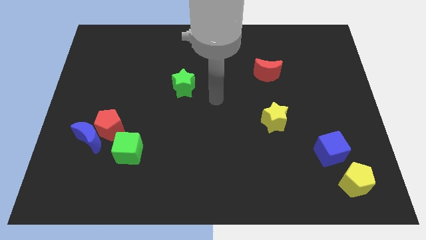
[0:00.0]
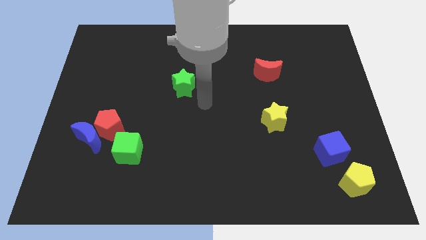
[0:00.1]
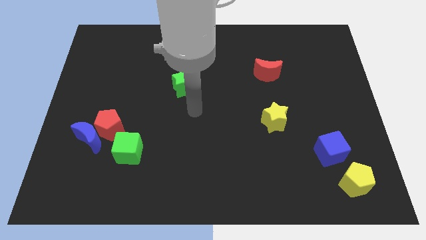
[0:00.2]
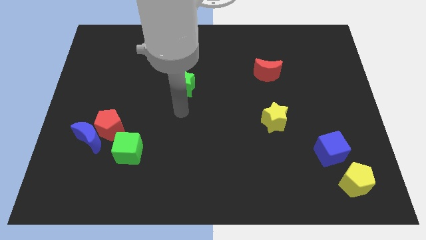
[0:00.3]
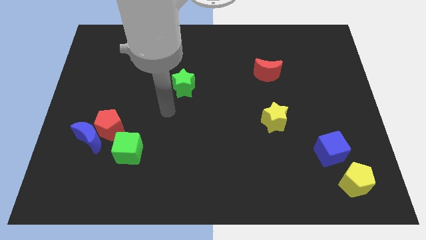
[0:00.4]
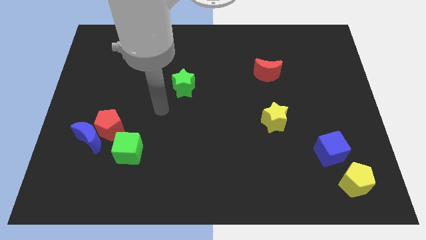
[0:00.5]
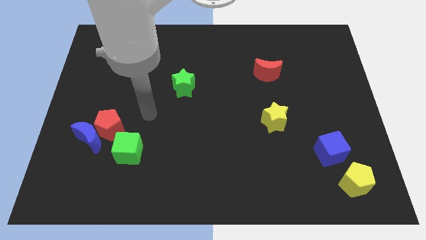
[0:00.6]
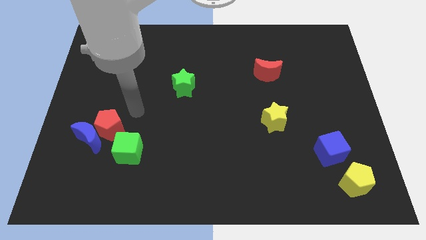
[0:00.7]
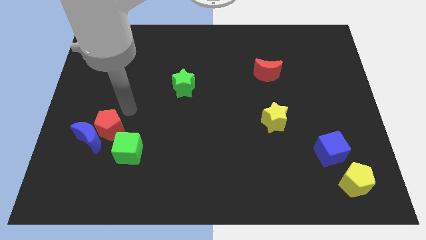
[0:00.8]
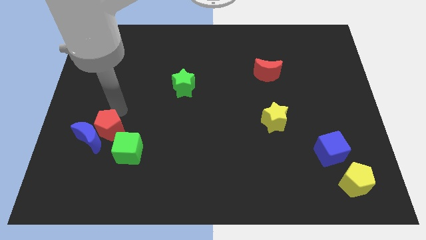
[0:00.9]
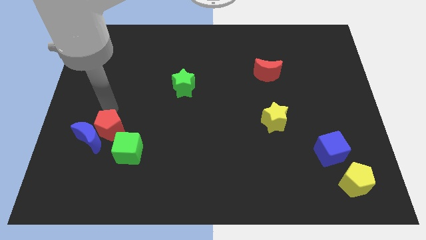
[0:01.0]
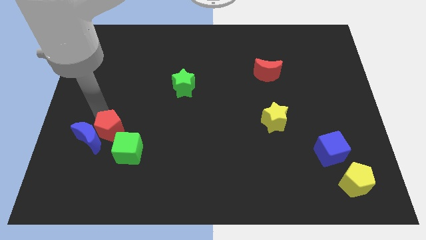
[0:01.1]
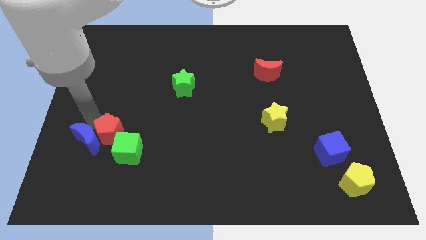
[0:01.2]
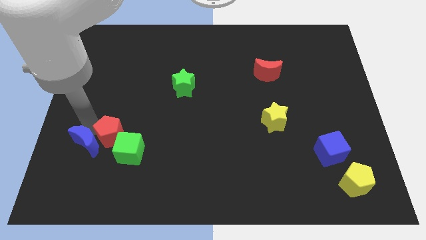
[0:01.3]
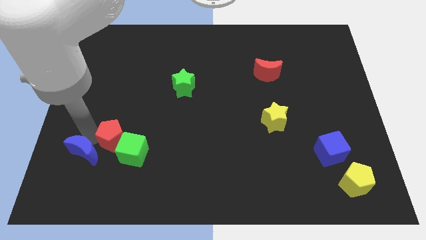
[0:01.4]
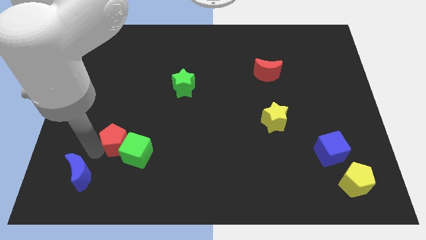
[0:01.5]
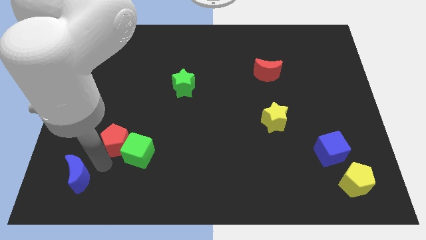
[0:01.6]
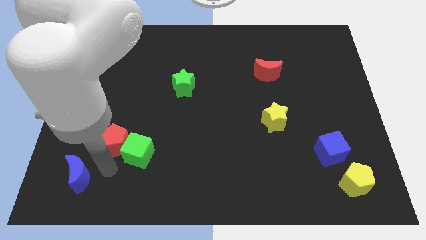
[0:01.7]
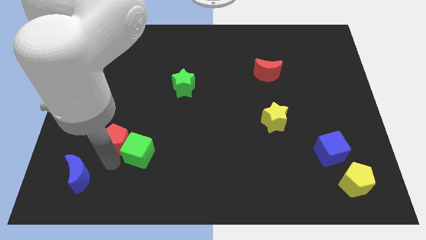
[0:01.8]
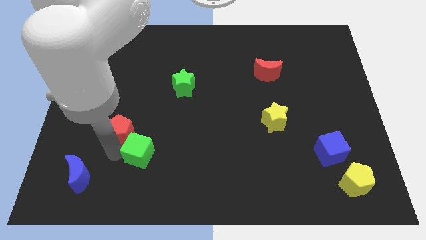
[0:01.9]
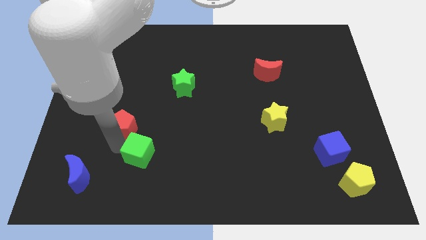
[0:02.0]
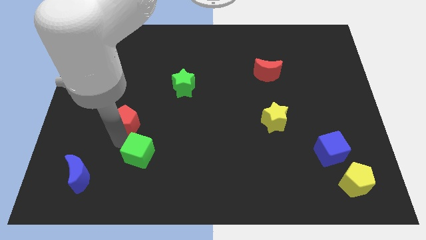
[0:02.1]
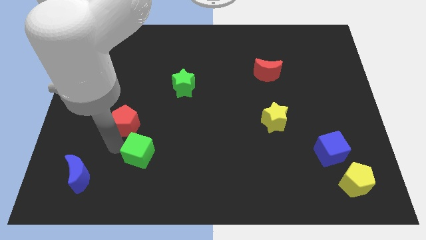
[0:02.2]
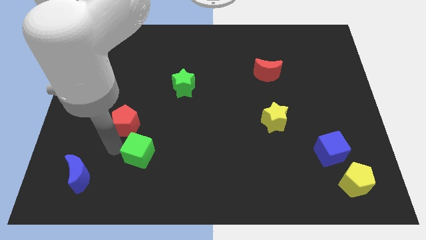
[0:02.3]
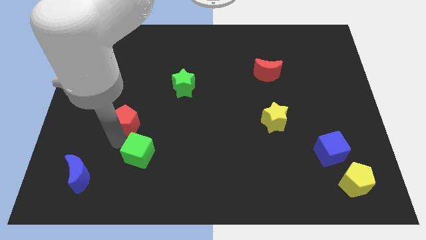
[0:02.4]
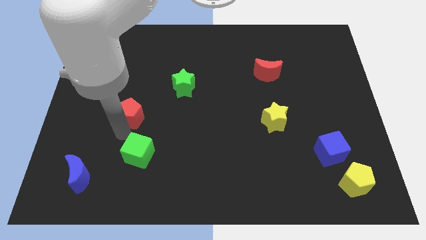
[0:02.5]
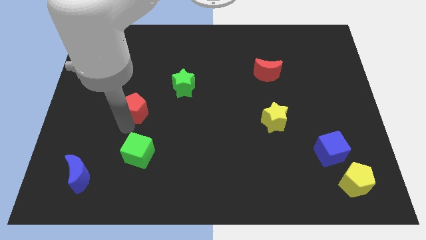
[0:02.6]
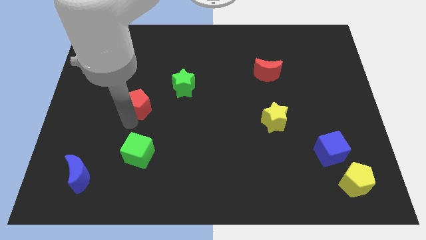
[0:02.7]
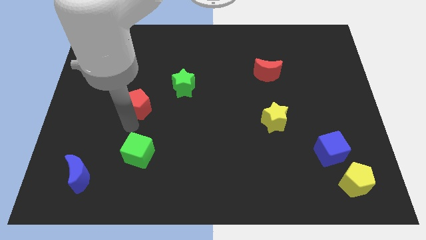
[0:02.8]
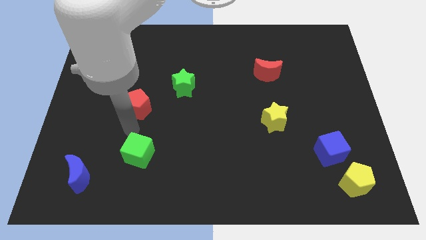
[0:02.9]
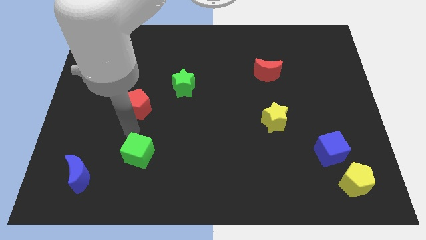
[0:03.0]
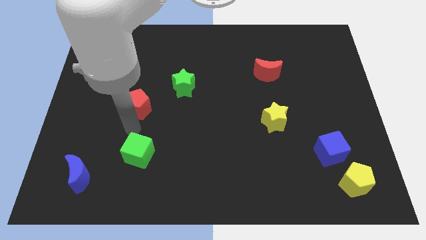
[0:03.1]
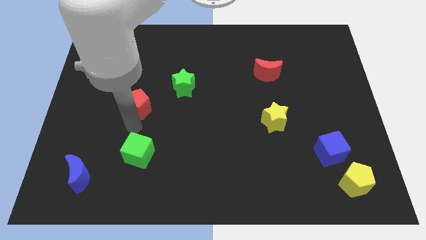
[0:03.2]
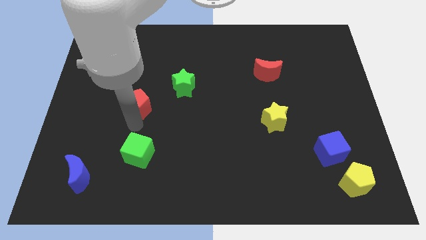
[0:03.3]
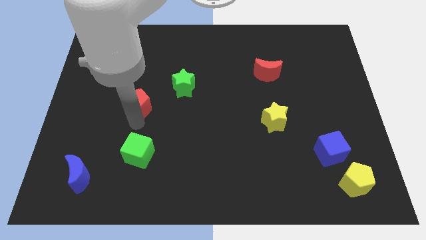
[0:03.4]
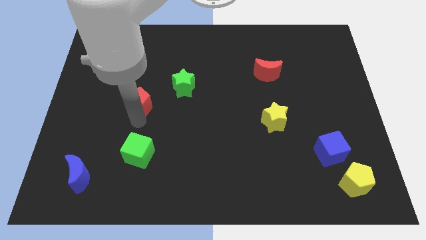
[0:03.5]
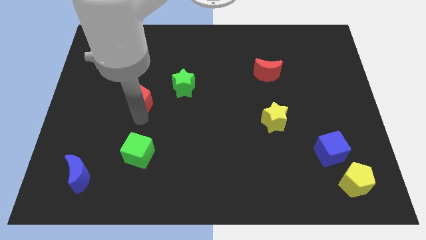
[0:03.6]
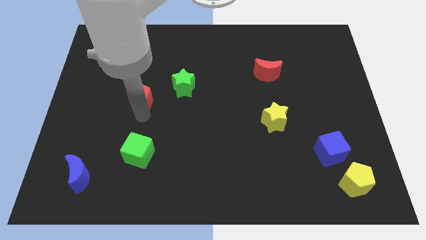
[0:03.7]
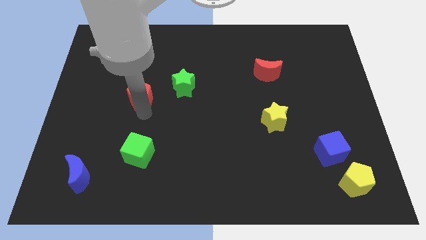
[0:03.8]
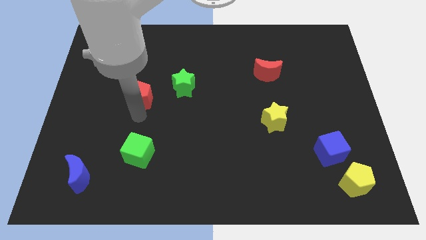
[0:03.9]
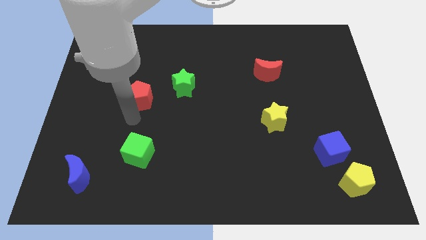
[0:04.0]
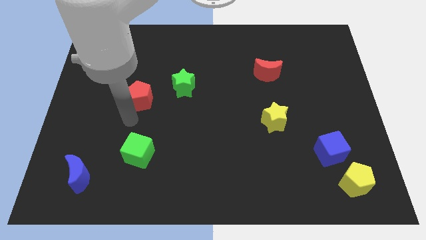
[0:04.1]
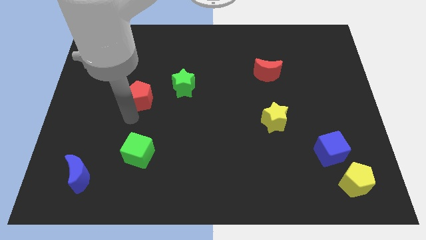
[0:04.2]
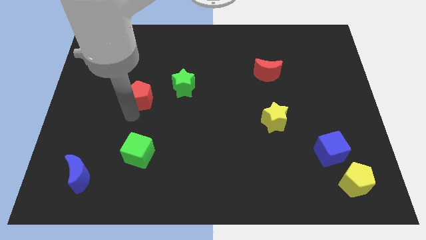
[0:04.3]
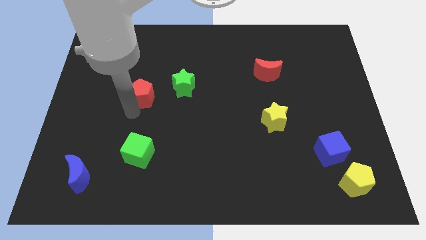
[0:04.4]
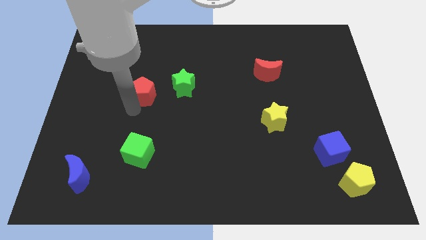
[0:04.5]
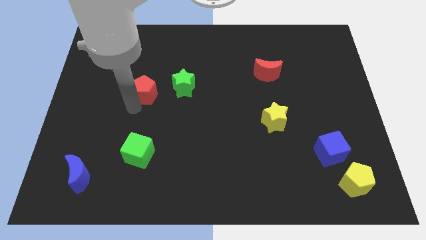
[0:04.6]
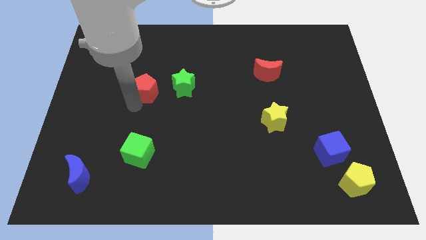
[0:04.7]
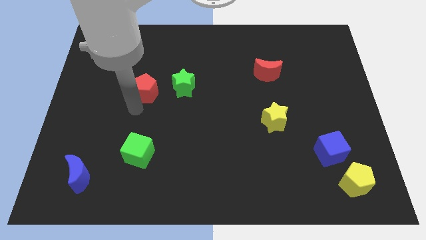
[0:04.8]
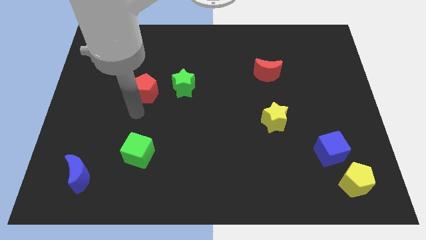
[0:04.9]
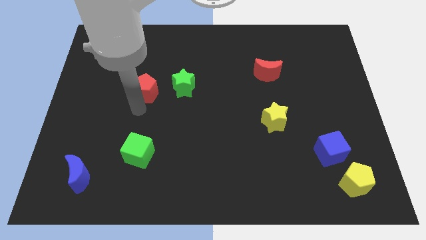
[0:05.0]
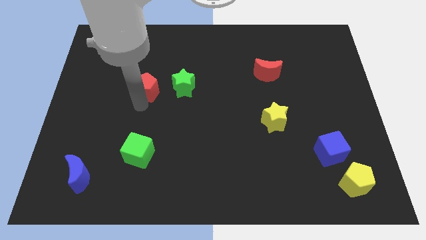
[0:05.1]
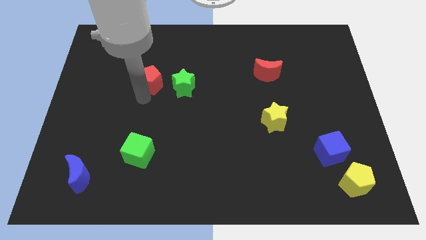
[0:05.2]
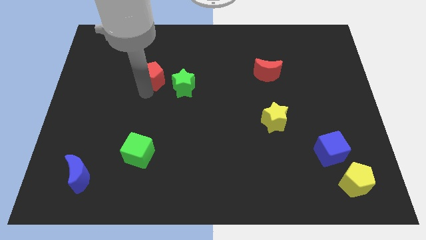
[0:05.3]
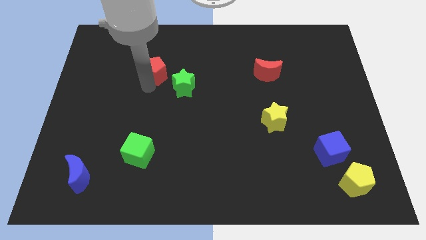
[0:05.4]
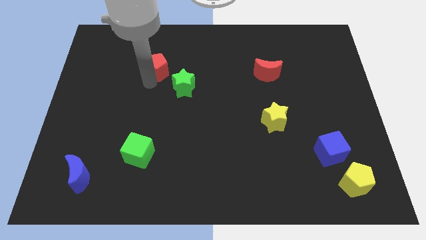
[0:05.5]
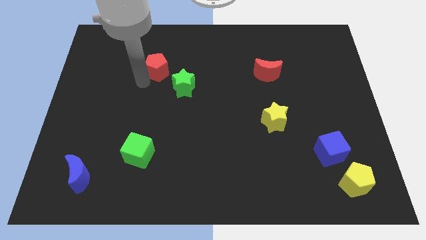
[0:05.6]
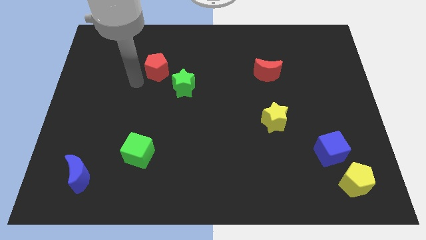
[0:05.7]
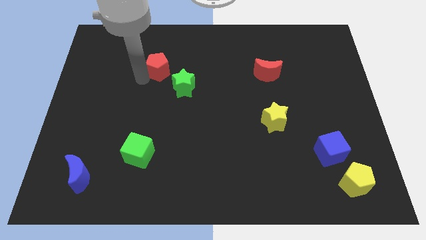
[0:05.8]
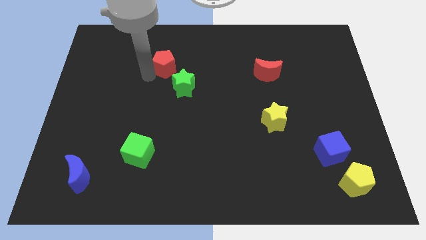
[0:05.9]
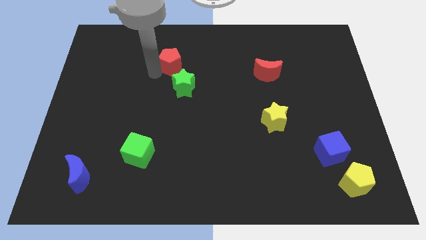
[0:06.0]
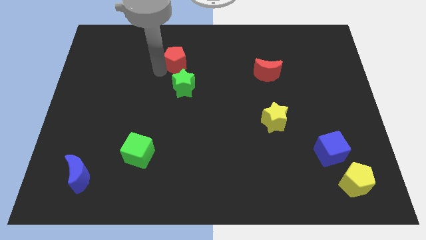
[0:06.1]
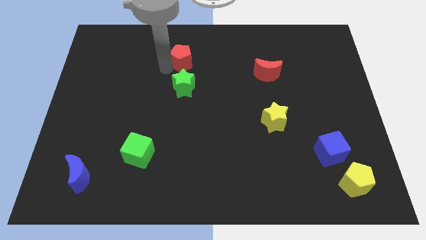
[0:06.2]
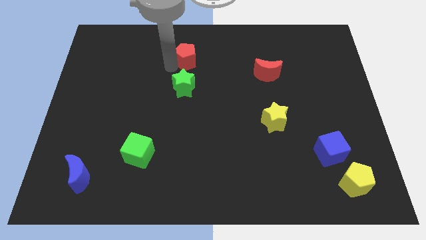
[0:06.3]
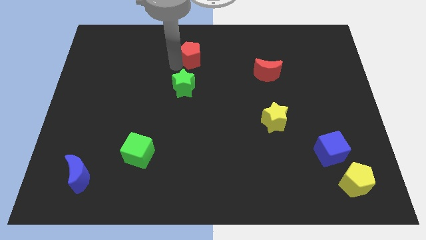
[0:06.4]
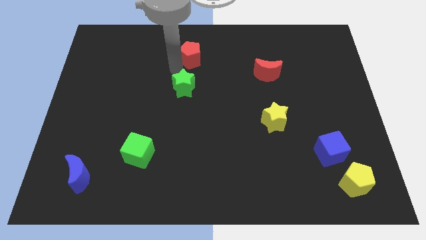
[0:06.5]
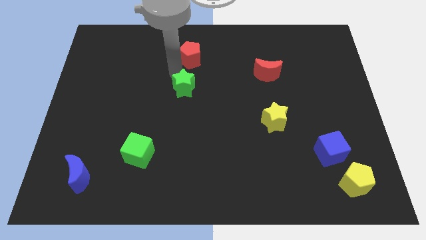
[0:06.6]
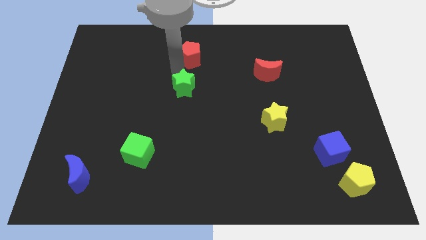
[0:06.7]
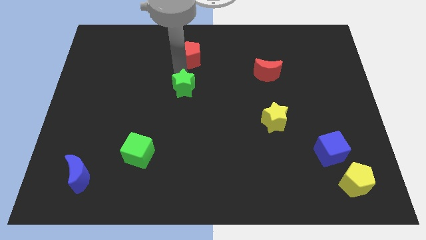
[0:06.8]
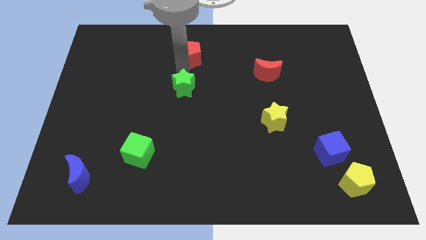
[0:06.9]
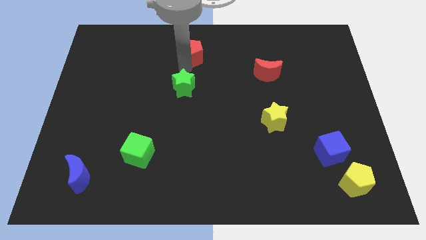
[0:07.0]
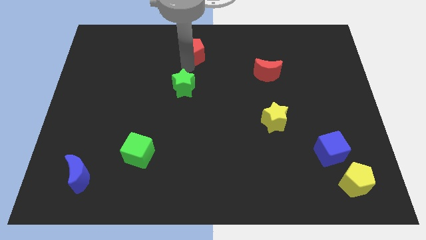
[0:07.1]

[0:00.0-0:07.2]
slide the red pentagon to the top
